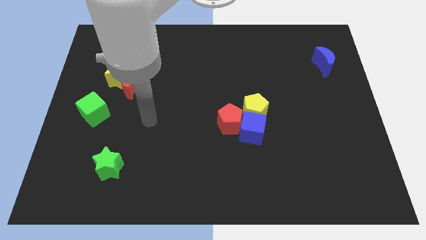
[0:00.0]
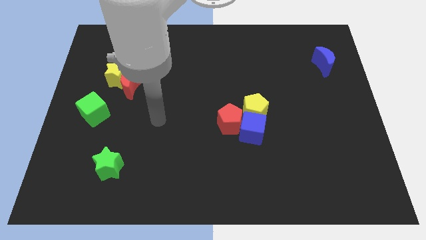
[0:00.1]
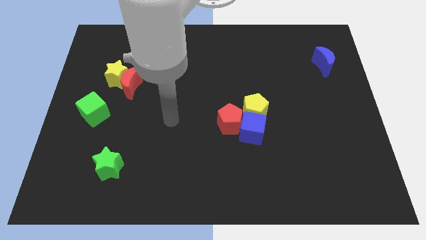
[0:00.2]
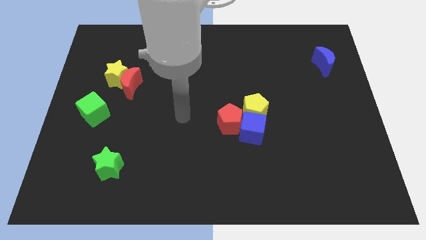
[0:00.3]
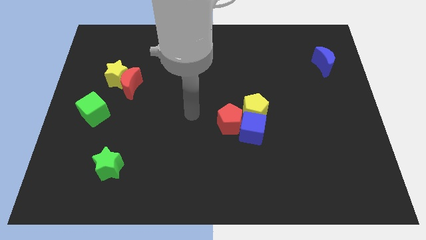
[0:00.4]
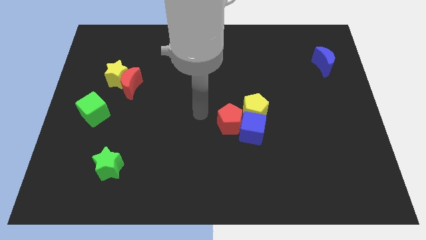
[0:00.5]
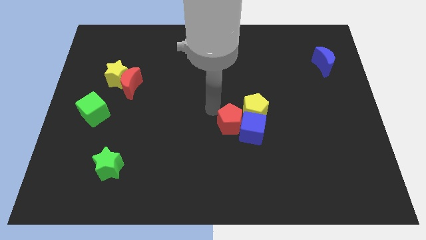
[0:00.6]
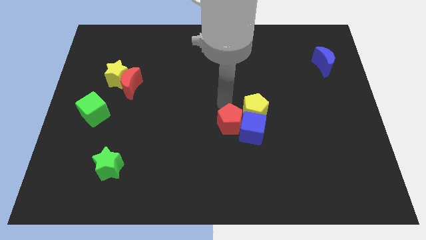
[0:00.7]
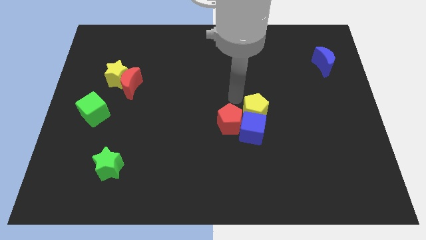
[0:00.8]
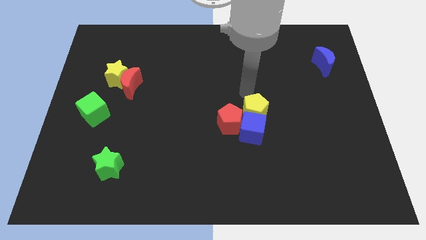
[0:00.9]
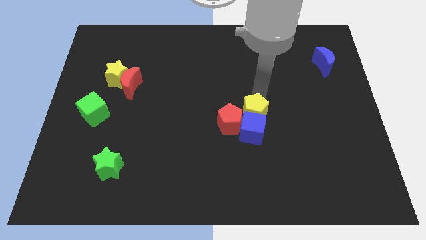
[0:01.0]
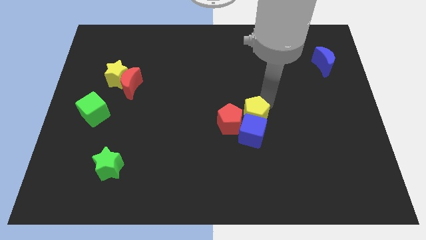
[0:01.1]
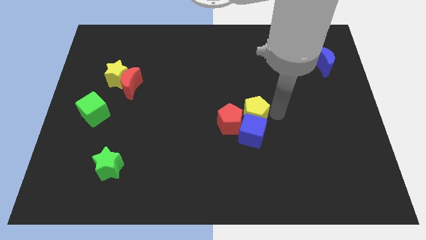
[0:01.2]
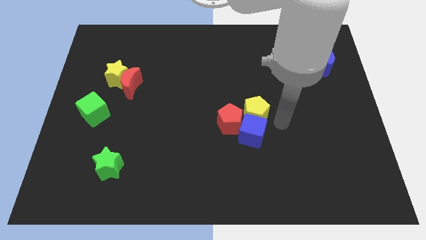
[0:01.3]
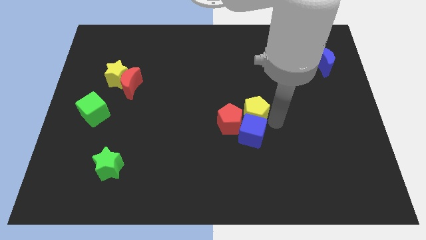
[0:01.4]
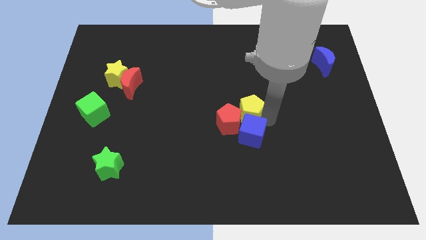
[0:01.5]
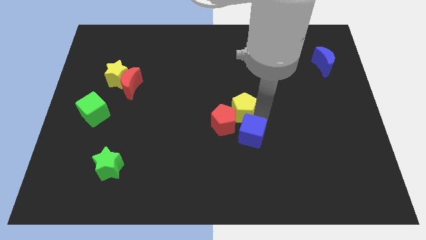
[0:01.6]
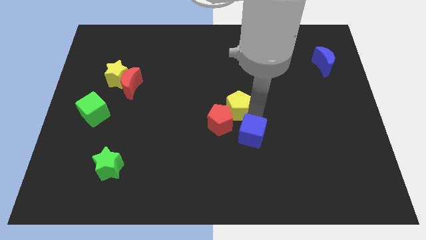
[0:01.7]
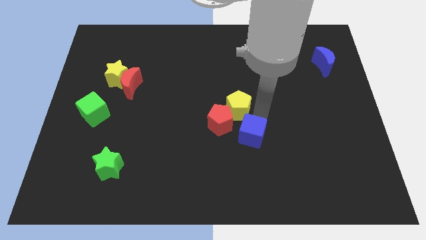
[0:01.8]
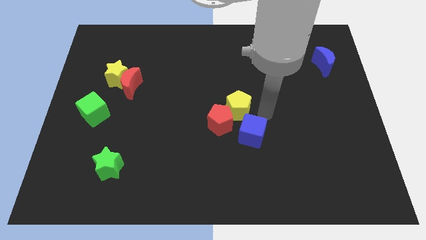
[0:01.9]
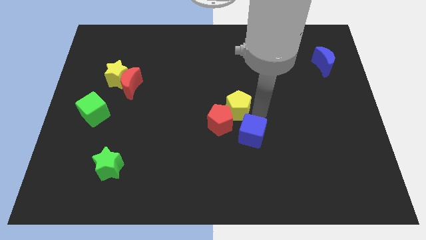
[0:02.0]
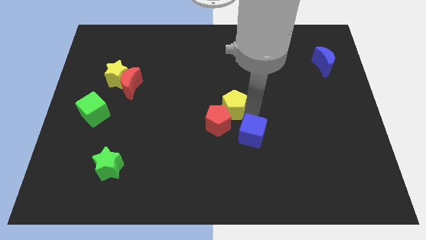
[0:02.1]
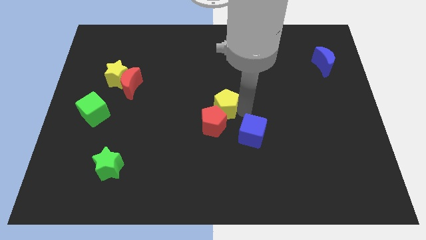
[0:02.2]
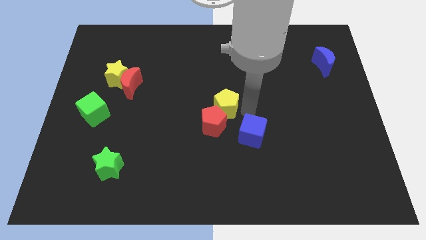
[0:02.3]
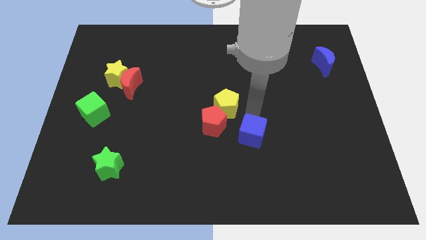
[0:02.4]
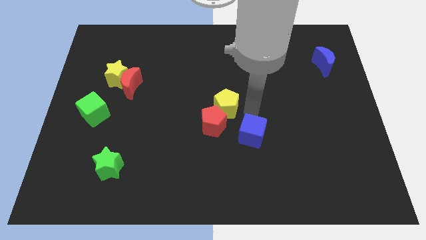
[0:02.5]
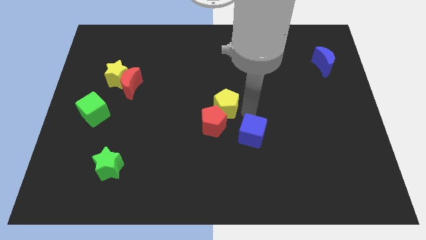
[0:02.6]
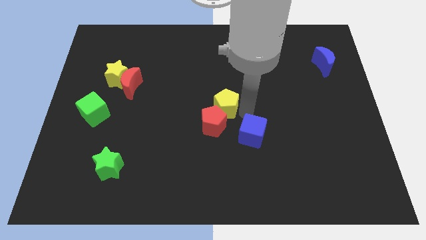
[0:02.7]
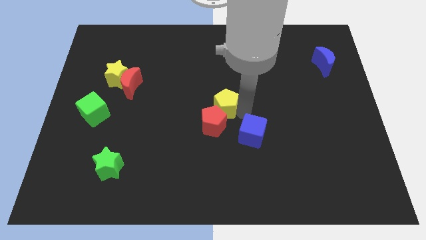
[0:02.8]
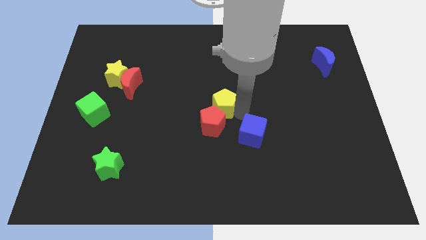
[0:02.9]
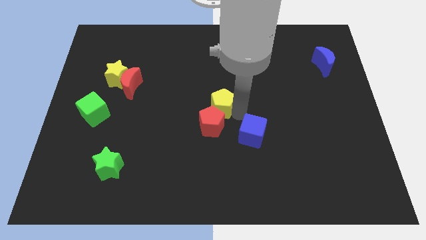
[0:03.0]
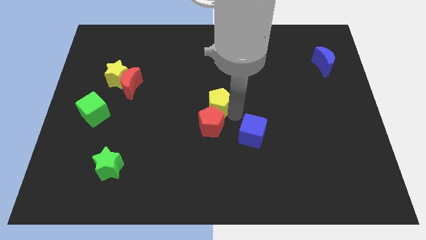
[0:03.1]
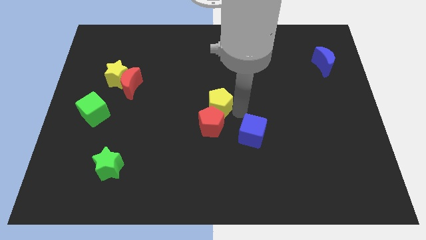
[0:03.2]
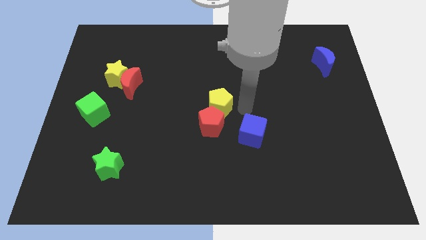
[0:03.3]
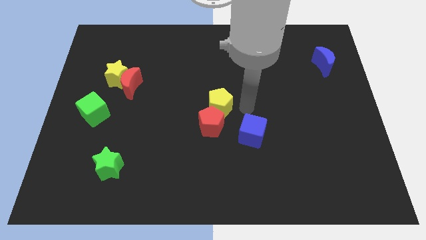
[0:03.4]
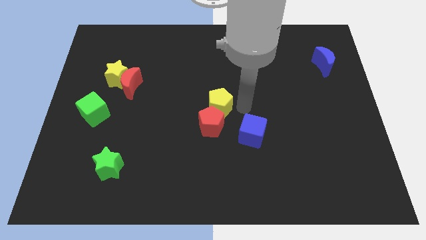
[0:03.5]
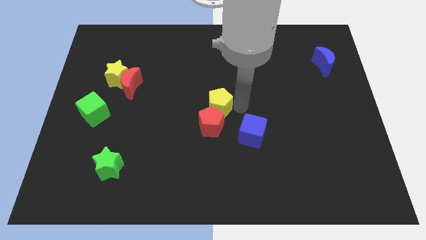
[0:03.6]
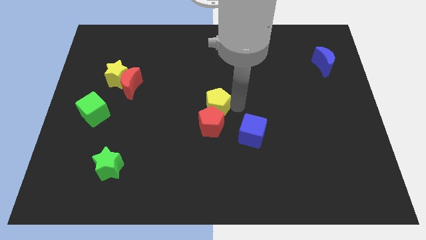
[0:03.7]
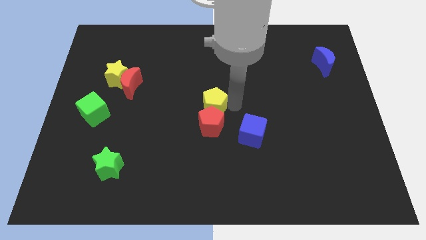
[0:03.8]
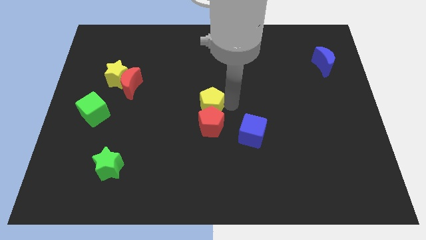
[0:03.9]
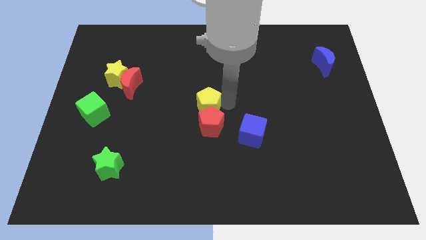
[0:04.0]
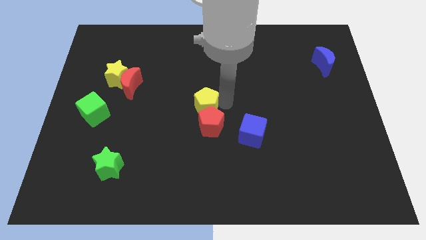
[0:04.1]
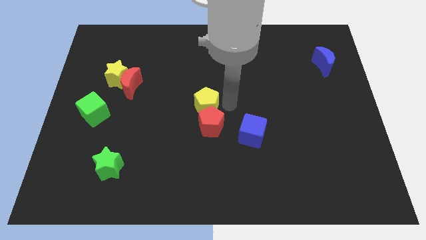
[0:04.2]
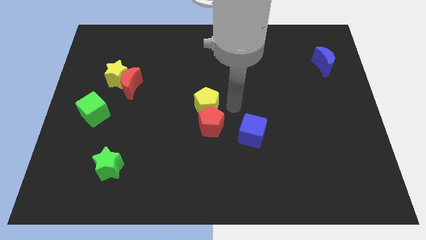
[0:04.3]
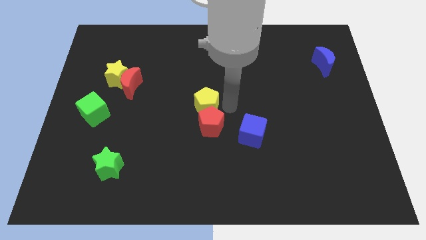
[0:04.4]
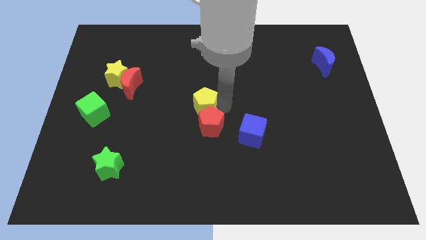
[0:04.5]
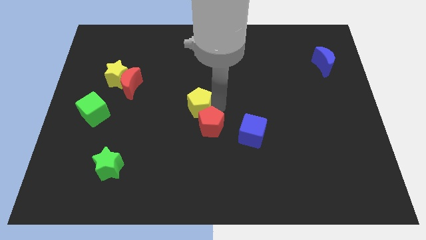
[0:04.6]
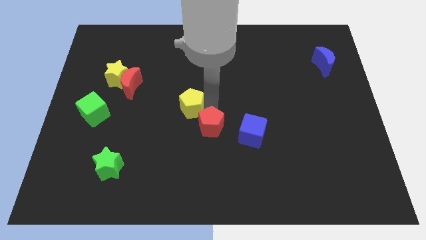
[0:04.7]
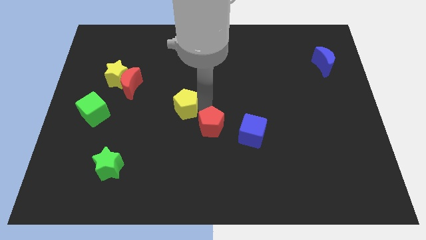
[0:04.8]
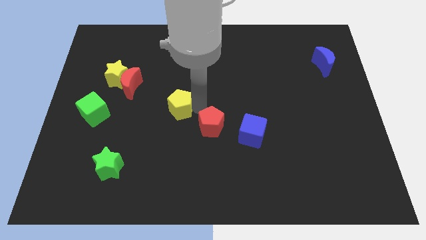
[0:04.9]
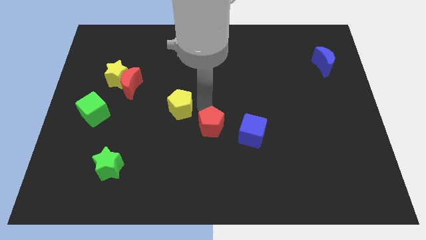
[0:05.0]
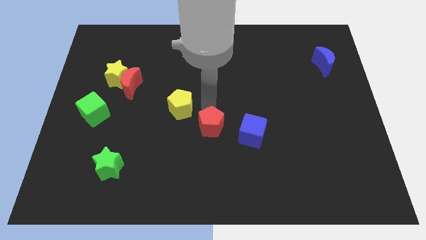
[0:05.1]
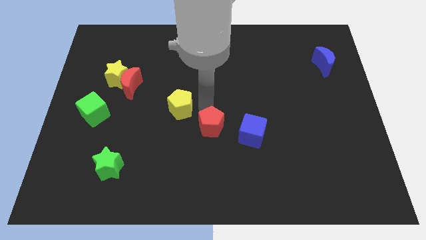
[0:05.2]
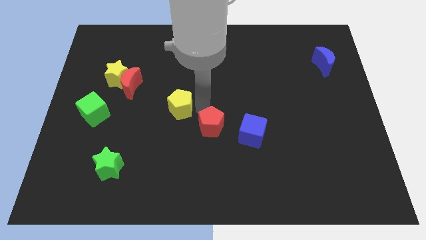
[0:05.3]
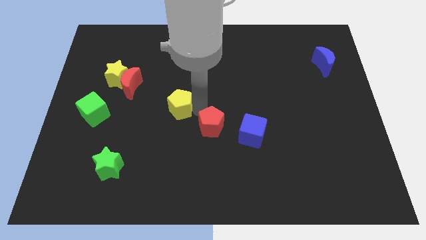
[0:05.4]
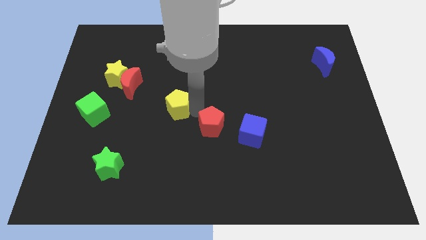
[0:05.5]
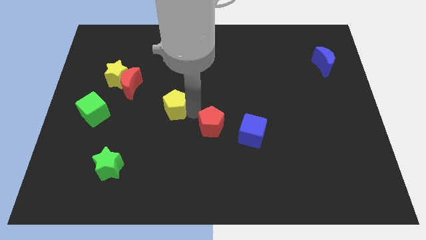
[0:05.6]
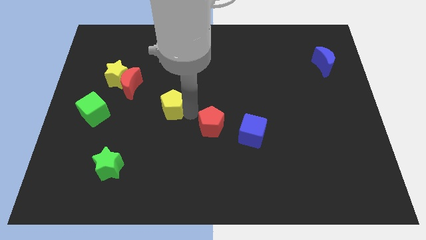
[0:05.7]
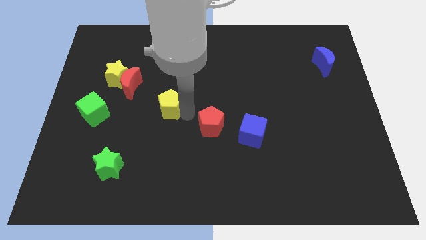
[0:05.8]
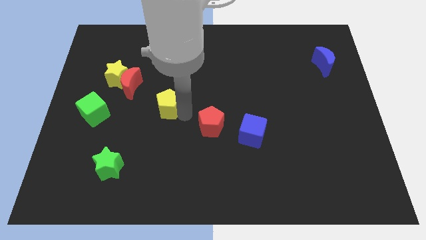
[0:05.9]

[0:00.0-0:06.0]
slide the yellow pentagon left

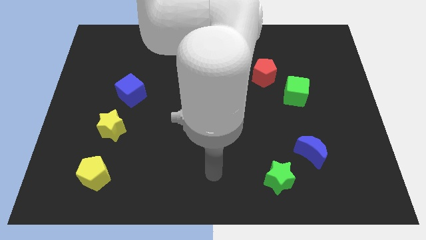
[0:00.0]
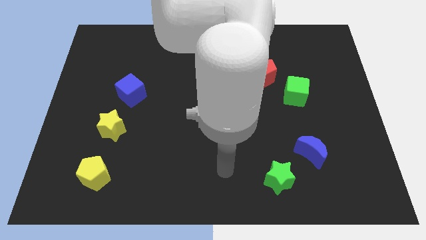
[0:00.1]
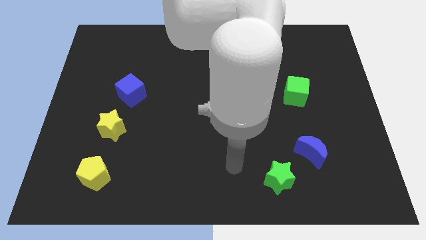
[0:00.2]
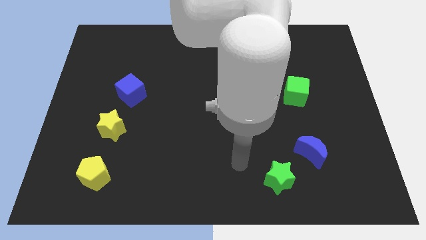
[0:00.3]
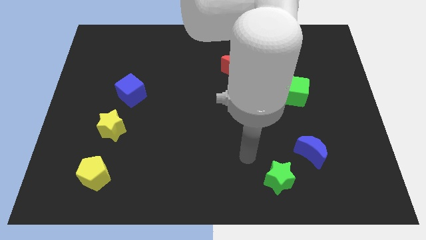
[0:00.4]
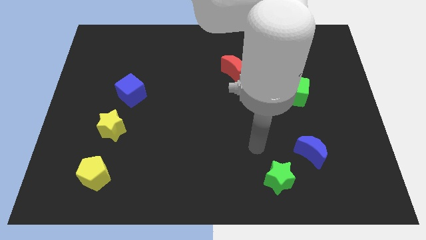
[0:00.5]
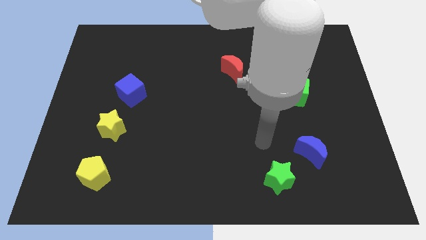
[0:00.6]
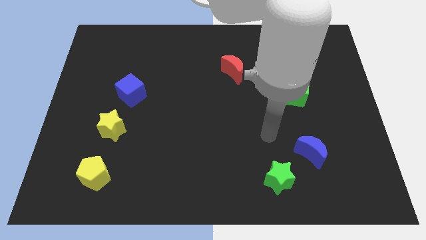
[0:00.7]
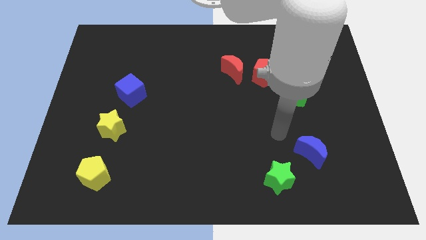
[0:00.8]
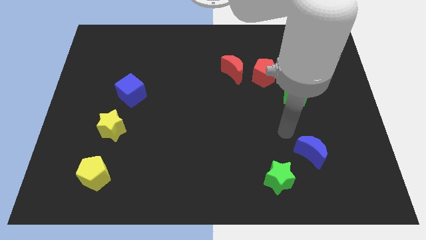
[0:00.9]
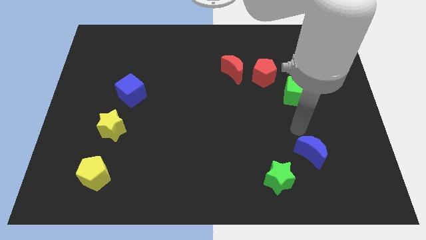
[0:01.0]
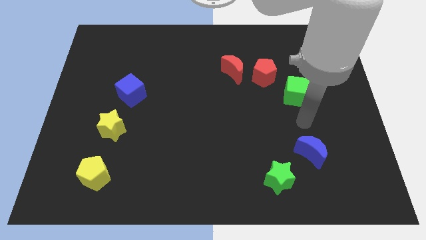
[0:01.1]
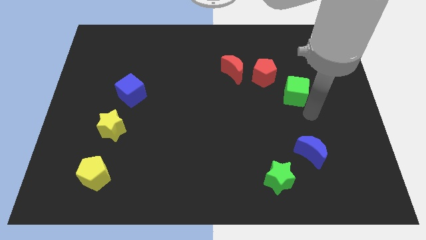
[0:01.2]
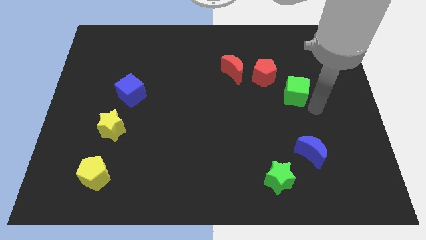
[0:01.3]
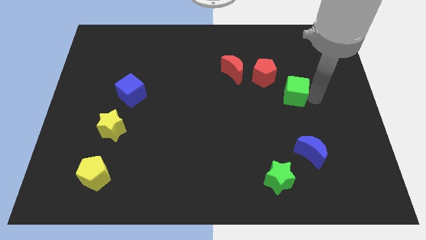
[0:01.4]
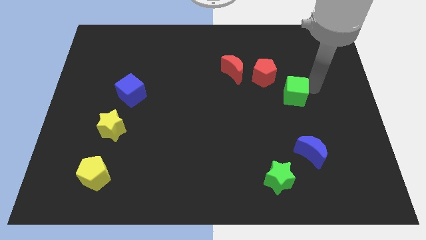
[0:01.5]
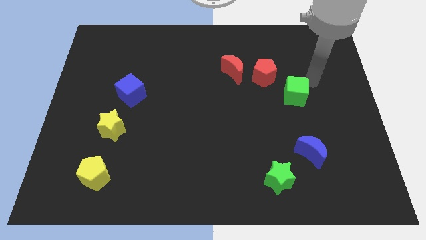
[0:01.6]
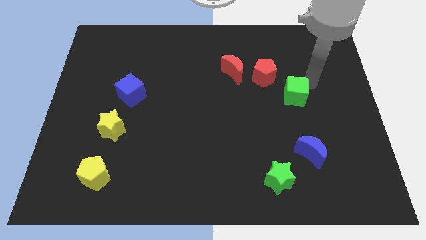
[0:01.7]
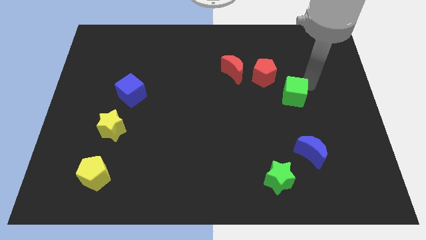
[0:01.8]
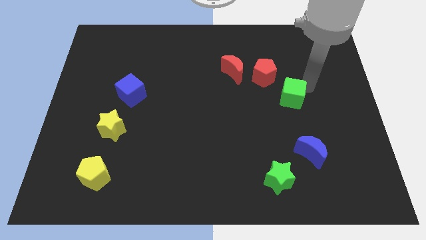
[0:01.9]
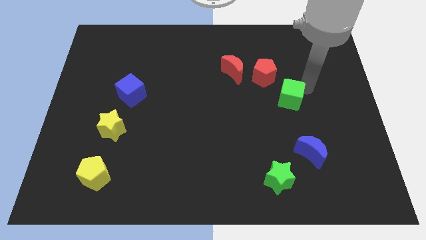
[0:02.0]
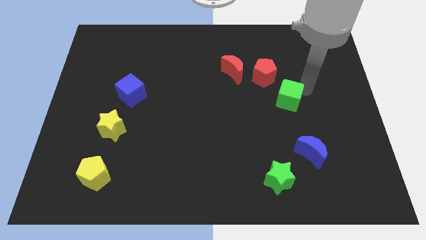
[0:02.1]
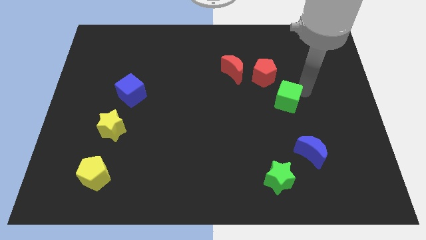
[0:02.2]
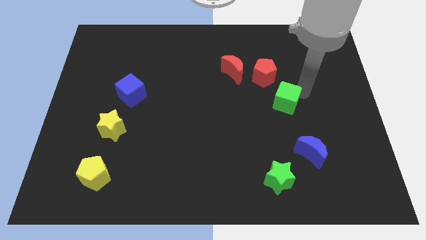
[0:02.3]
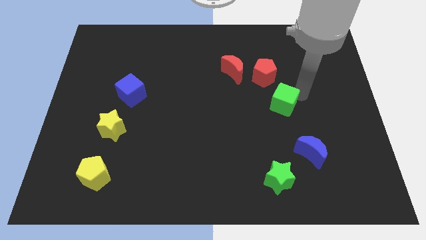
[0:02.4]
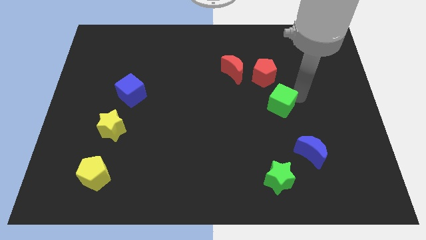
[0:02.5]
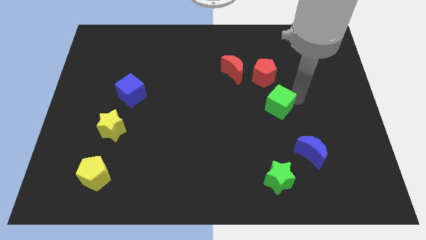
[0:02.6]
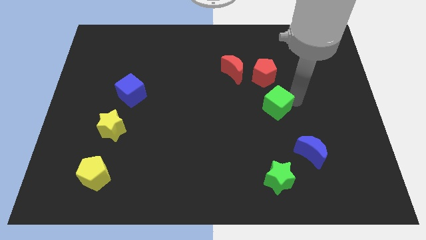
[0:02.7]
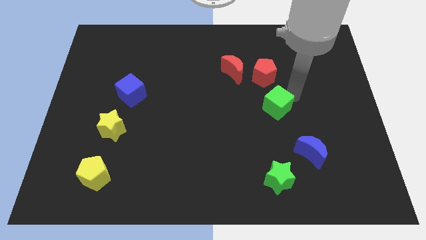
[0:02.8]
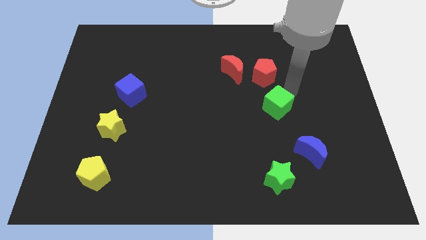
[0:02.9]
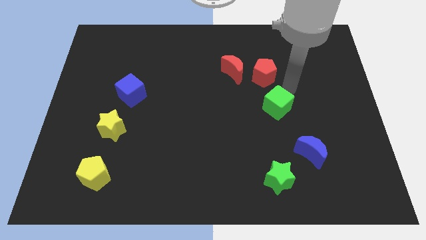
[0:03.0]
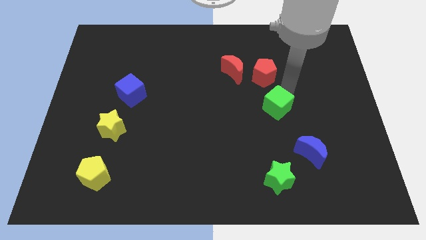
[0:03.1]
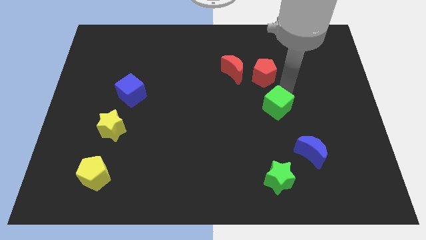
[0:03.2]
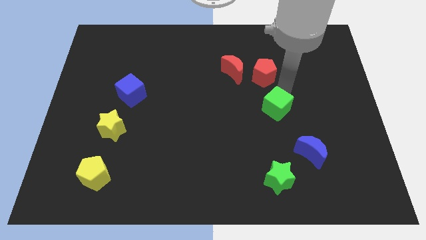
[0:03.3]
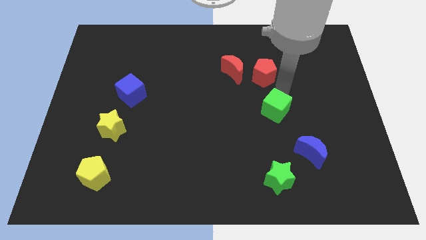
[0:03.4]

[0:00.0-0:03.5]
move the green cube somewhat downwards and to the left
